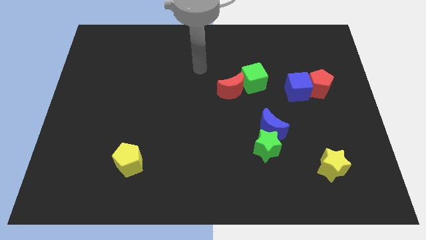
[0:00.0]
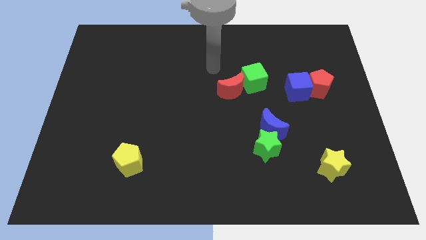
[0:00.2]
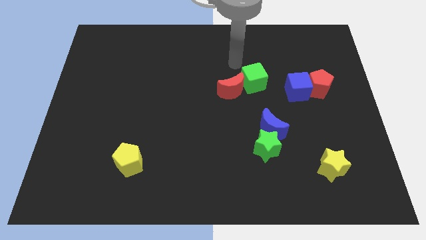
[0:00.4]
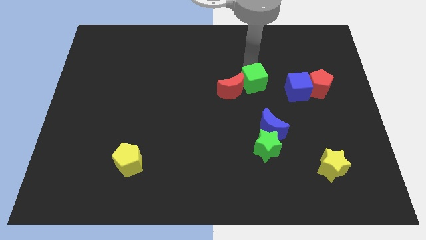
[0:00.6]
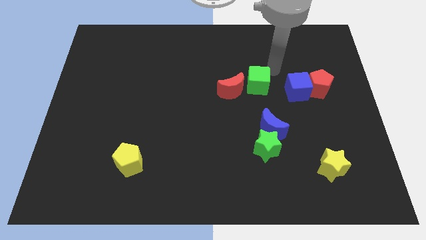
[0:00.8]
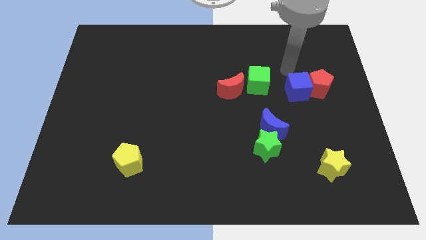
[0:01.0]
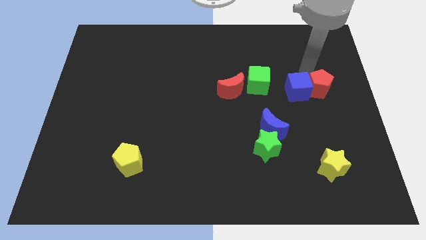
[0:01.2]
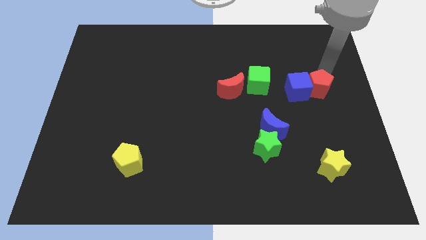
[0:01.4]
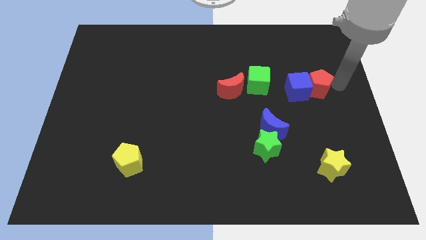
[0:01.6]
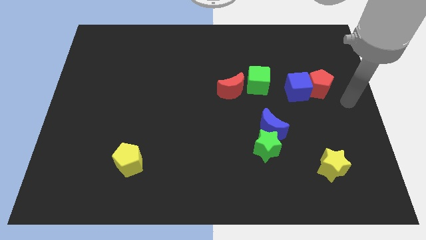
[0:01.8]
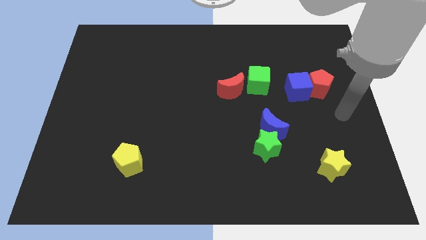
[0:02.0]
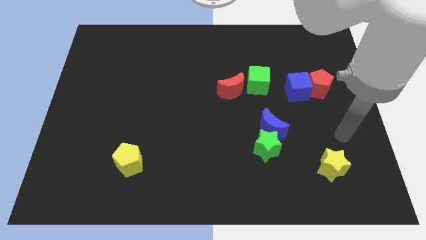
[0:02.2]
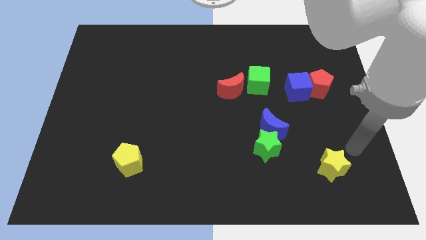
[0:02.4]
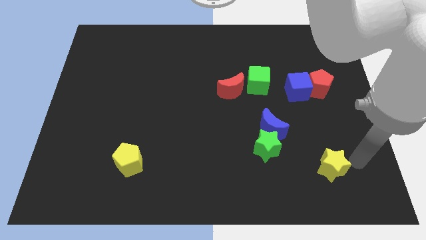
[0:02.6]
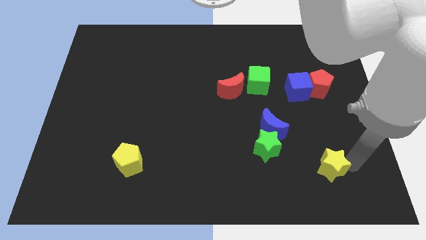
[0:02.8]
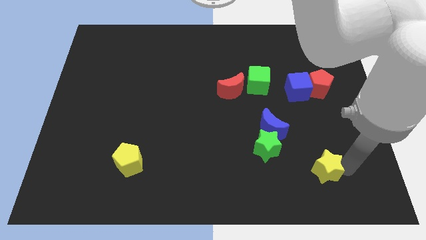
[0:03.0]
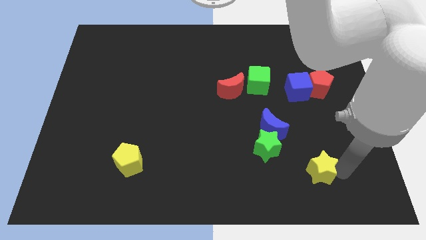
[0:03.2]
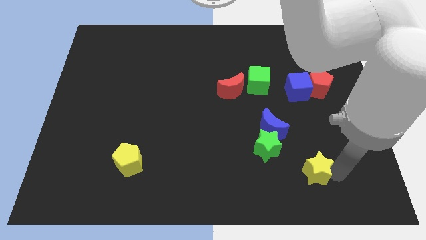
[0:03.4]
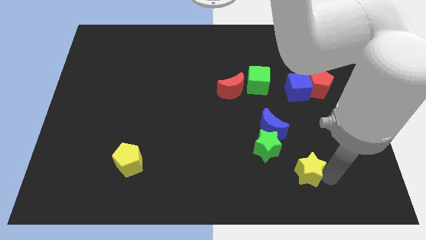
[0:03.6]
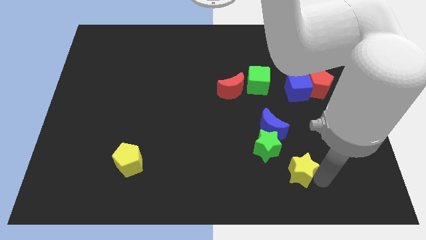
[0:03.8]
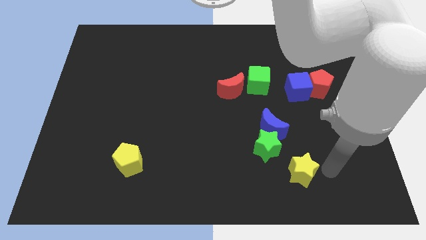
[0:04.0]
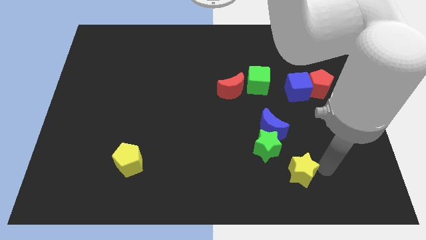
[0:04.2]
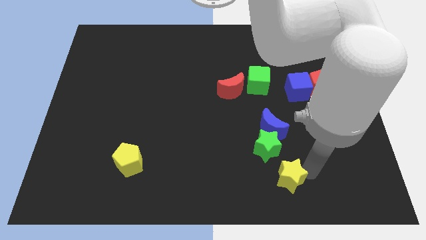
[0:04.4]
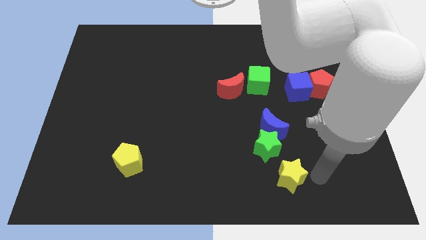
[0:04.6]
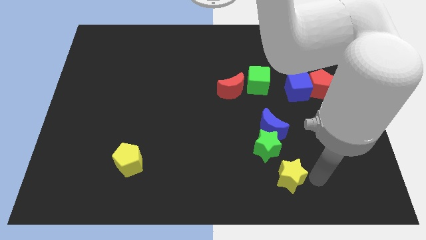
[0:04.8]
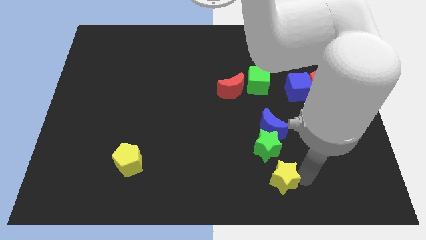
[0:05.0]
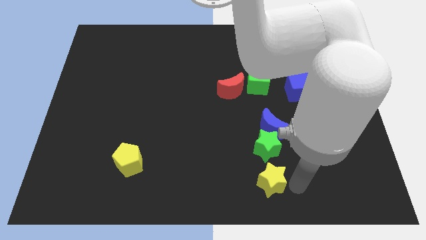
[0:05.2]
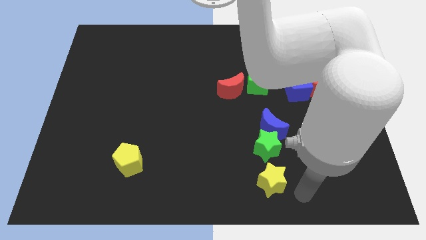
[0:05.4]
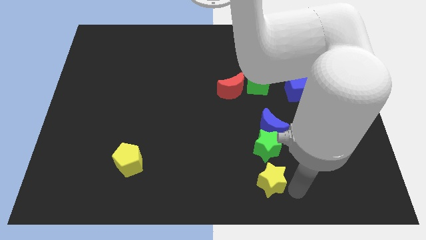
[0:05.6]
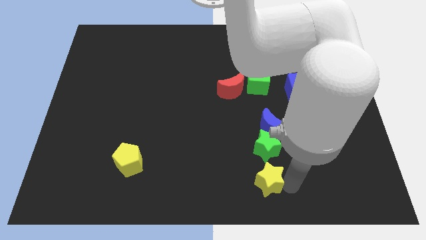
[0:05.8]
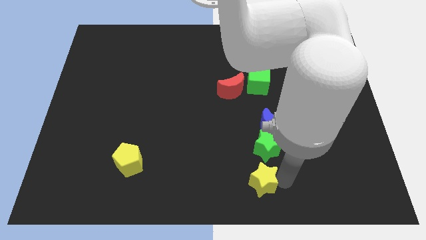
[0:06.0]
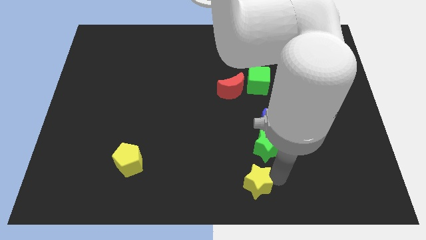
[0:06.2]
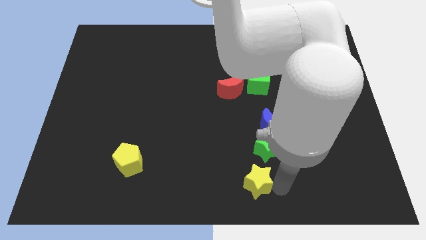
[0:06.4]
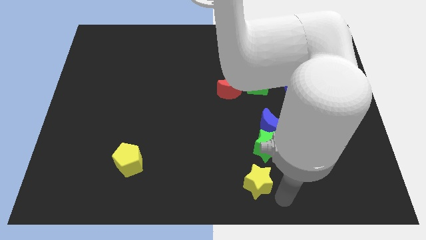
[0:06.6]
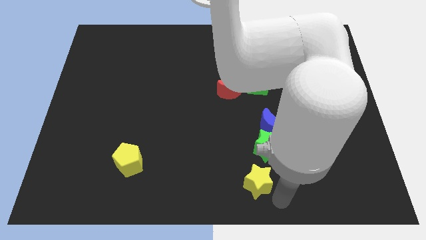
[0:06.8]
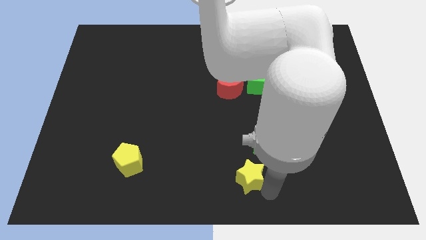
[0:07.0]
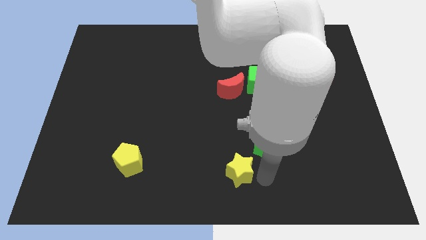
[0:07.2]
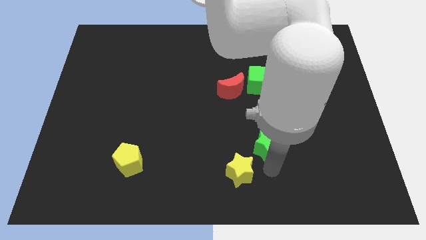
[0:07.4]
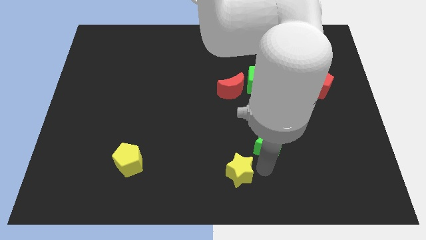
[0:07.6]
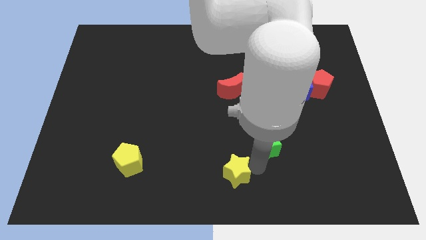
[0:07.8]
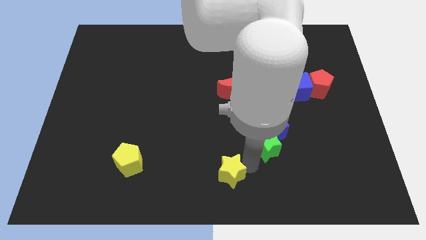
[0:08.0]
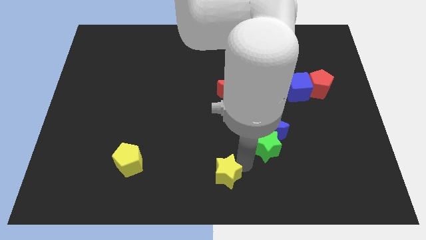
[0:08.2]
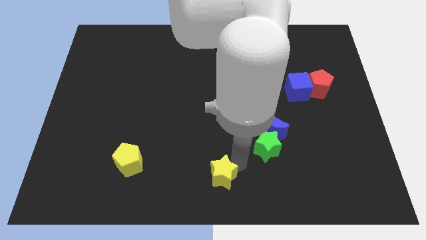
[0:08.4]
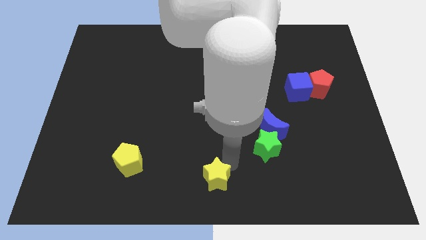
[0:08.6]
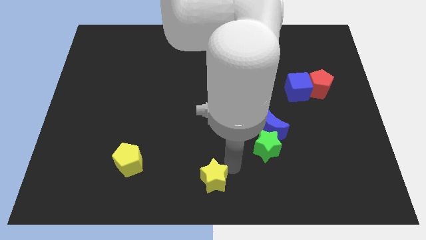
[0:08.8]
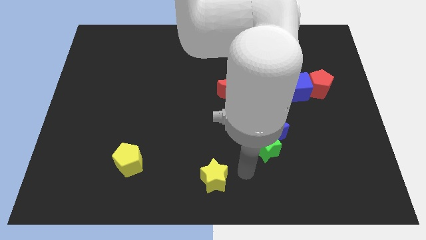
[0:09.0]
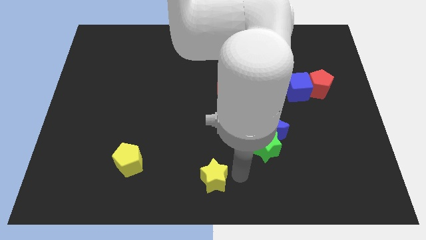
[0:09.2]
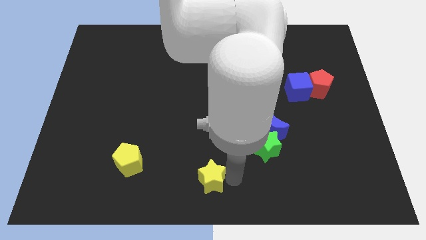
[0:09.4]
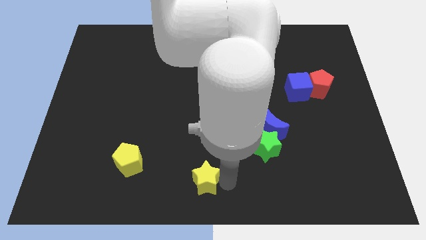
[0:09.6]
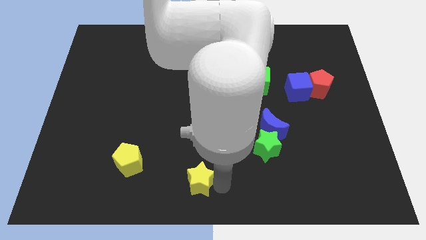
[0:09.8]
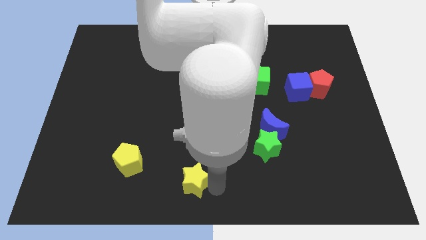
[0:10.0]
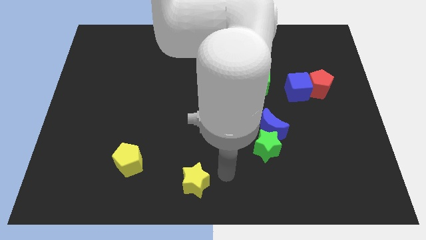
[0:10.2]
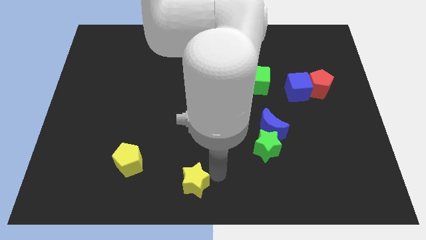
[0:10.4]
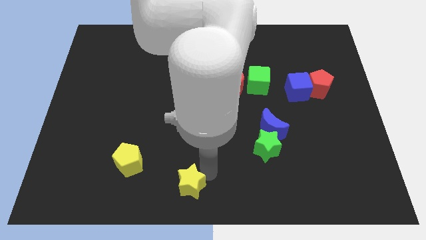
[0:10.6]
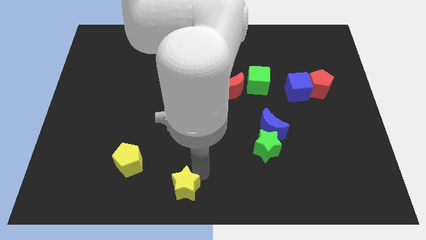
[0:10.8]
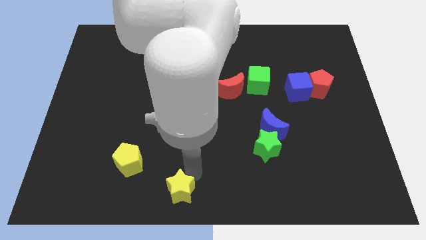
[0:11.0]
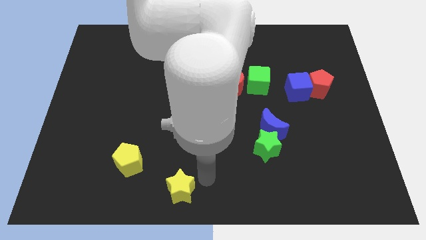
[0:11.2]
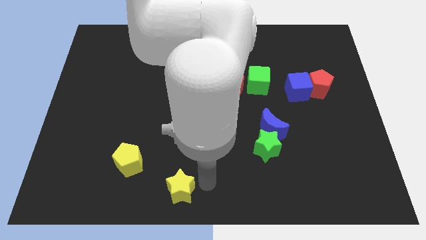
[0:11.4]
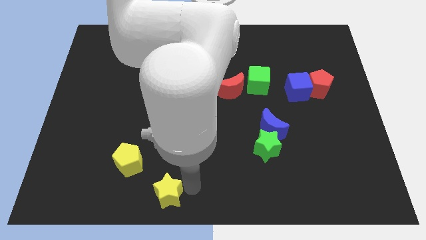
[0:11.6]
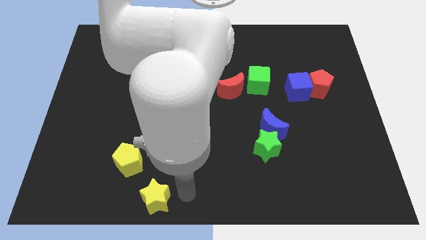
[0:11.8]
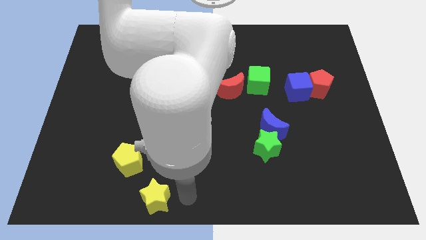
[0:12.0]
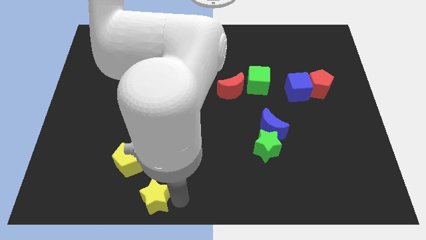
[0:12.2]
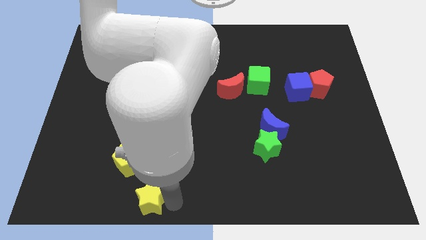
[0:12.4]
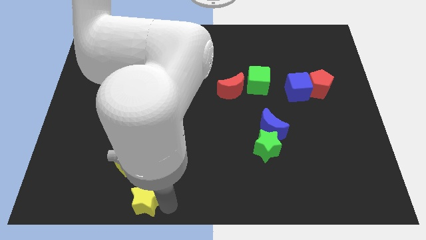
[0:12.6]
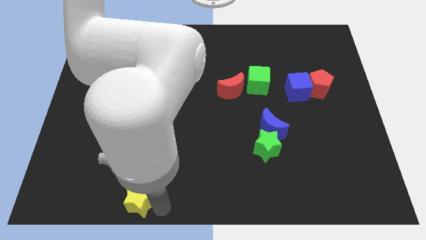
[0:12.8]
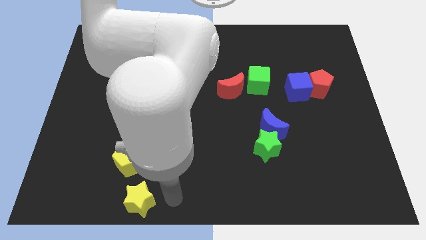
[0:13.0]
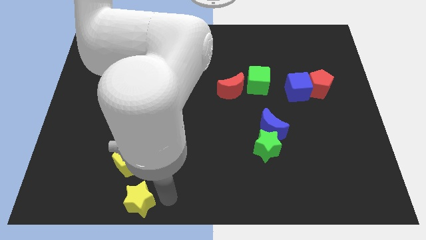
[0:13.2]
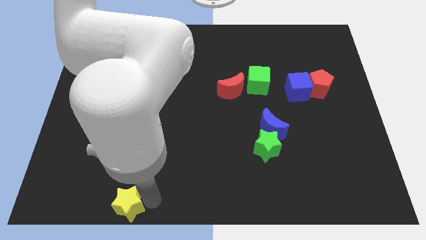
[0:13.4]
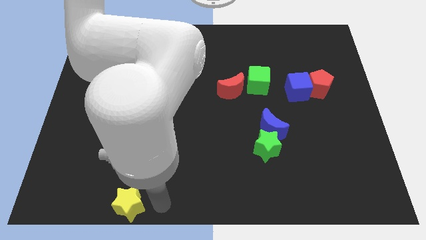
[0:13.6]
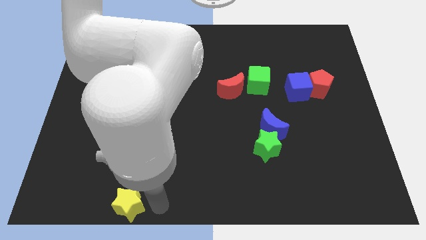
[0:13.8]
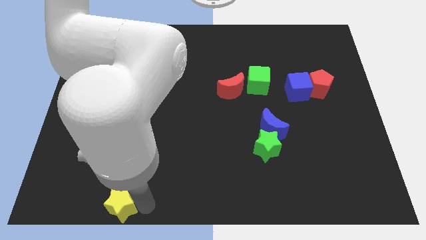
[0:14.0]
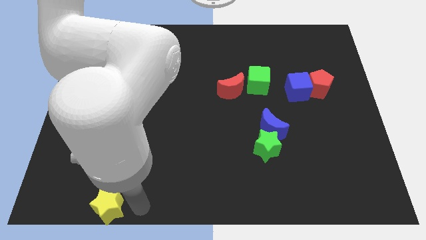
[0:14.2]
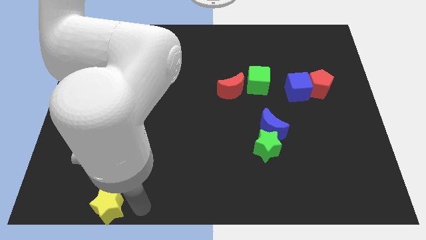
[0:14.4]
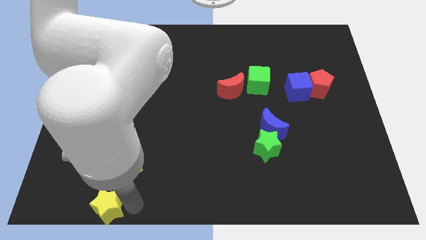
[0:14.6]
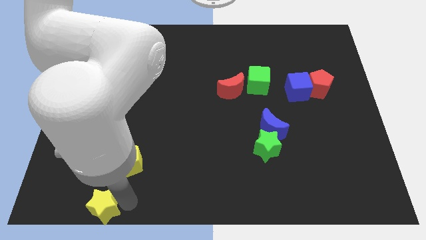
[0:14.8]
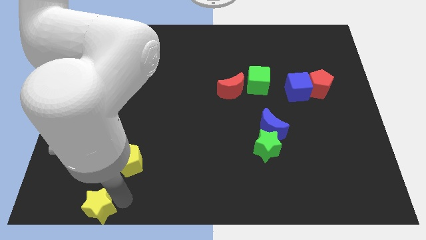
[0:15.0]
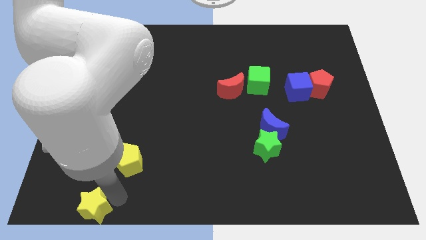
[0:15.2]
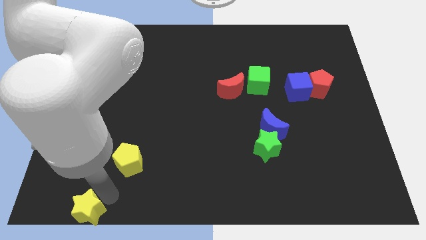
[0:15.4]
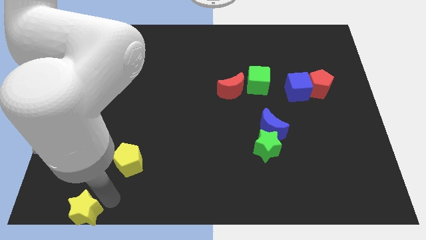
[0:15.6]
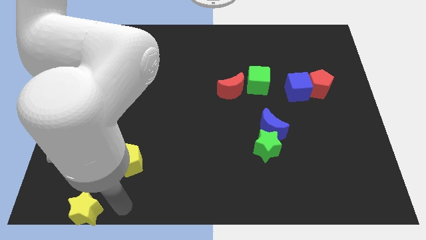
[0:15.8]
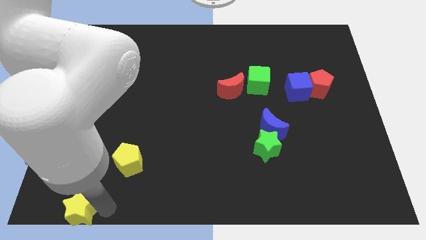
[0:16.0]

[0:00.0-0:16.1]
put the yellow star to the bottom left
